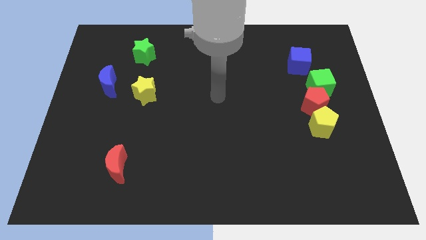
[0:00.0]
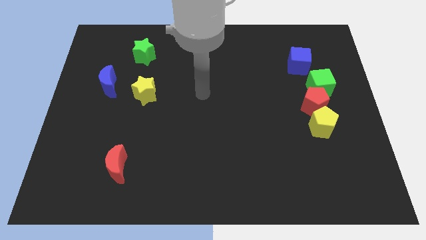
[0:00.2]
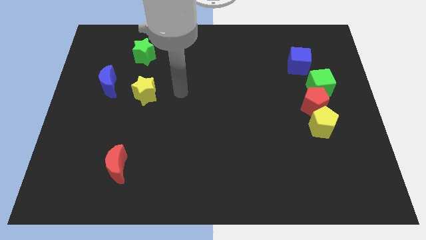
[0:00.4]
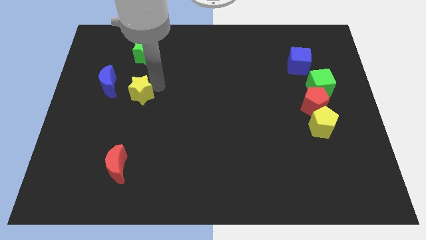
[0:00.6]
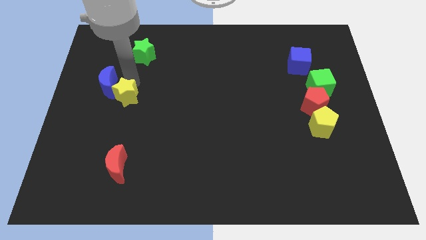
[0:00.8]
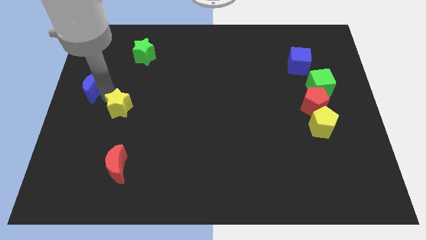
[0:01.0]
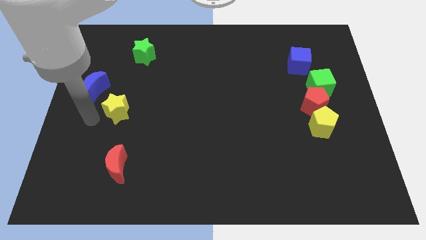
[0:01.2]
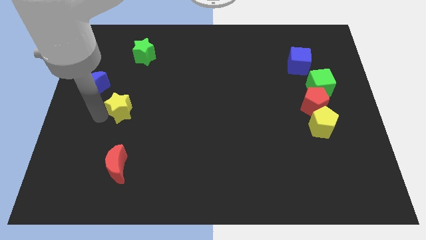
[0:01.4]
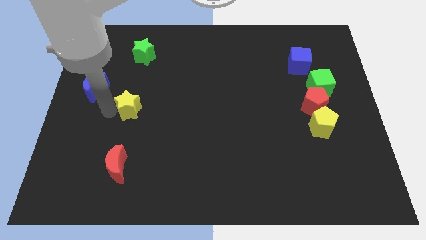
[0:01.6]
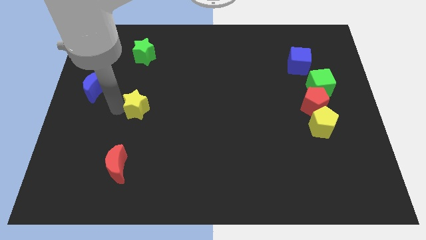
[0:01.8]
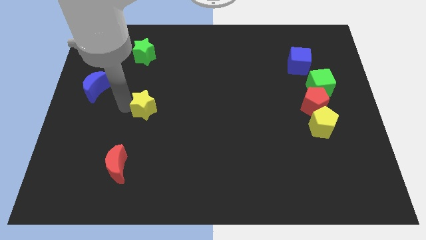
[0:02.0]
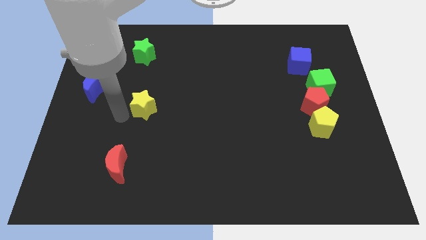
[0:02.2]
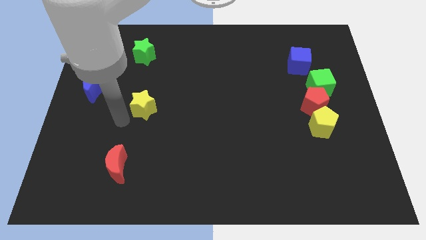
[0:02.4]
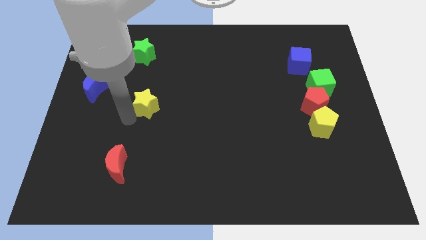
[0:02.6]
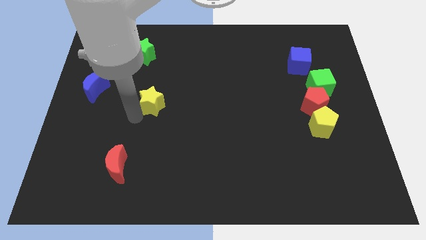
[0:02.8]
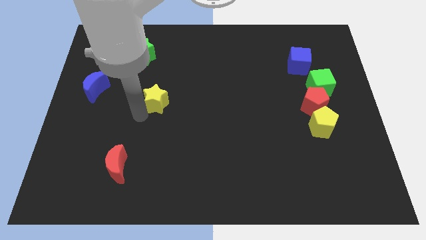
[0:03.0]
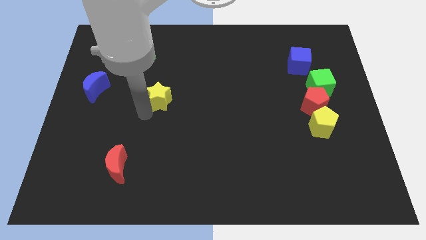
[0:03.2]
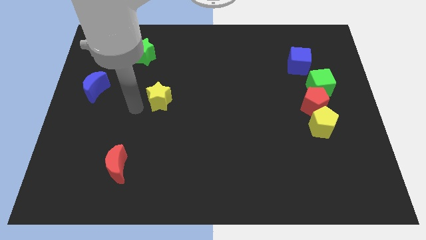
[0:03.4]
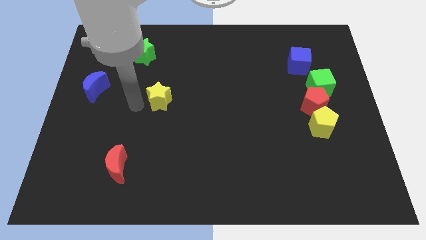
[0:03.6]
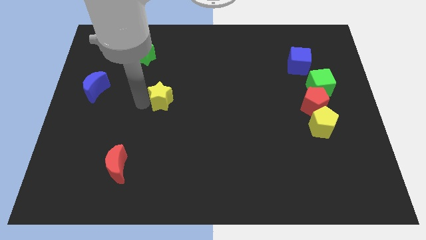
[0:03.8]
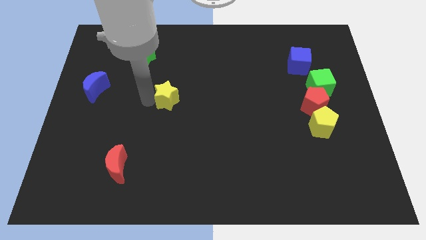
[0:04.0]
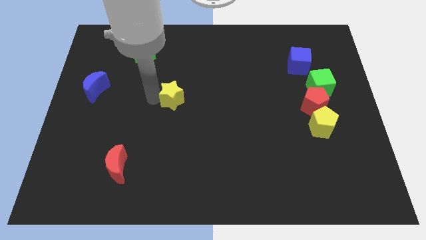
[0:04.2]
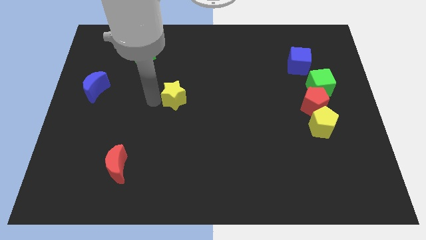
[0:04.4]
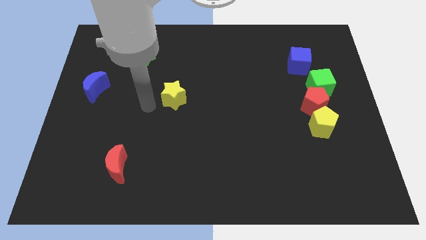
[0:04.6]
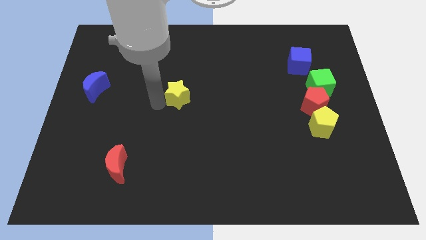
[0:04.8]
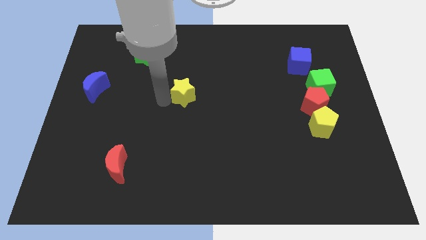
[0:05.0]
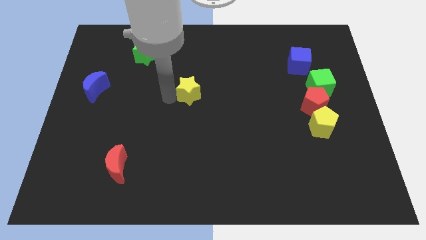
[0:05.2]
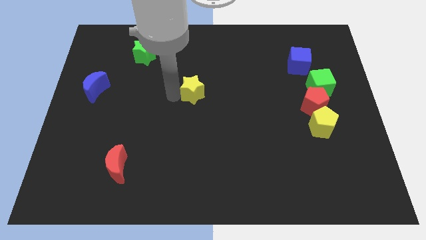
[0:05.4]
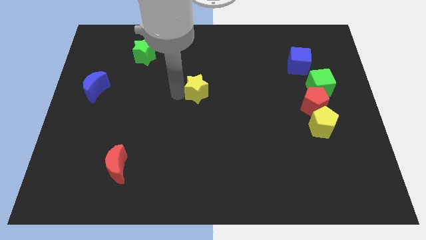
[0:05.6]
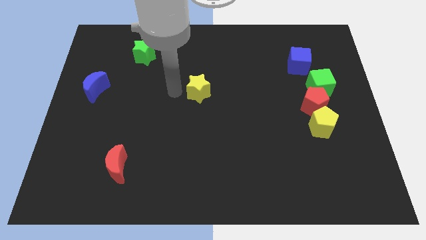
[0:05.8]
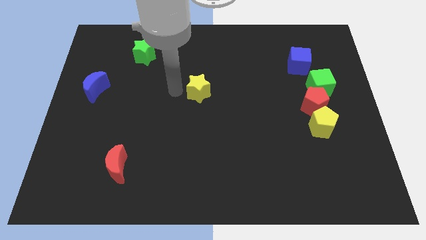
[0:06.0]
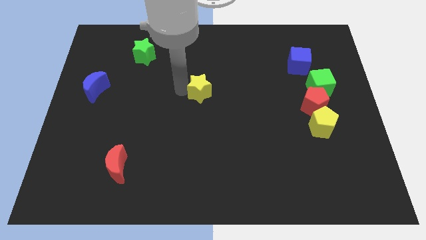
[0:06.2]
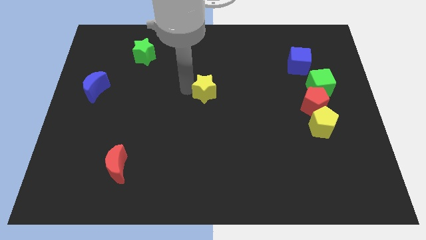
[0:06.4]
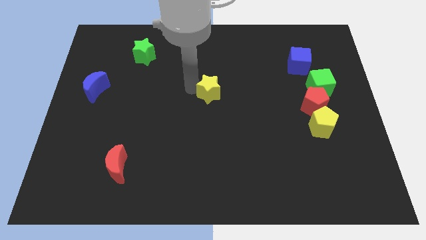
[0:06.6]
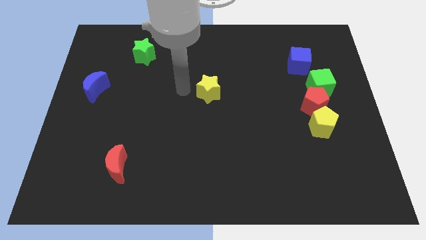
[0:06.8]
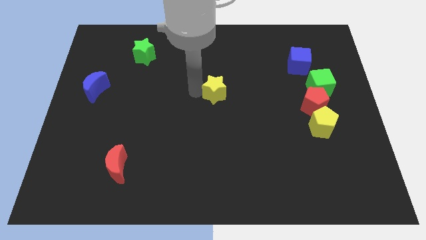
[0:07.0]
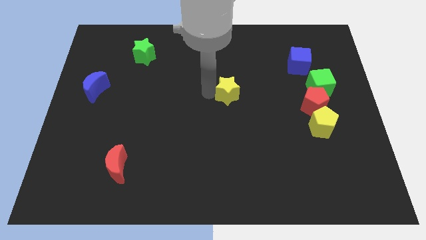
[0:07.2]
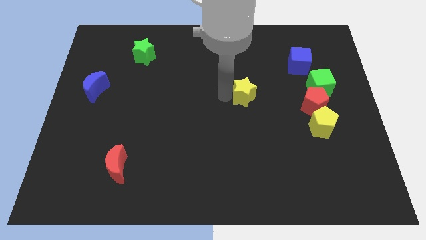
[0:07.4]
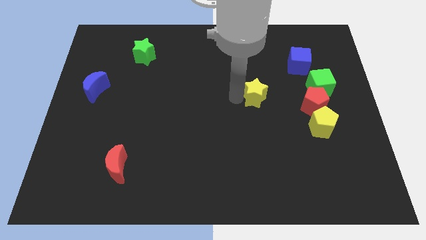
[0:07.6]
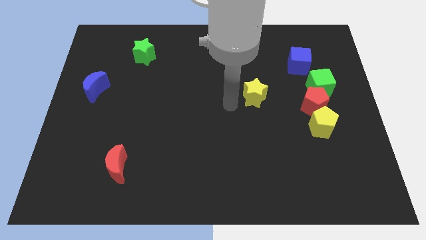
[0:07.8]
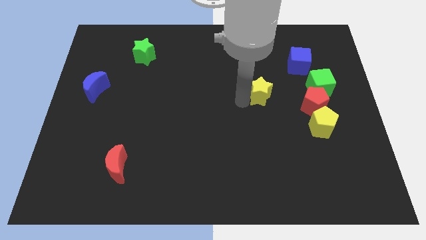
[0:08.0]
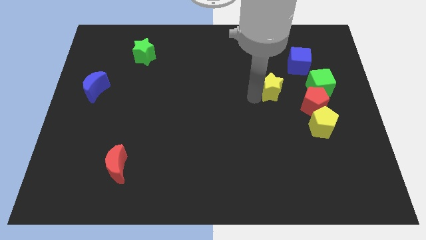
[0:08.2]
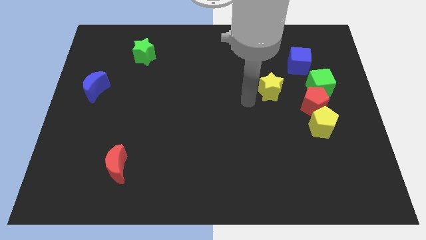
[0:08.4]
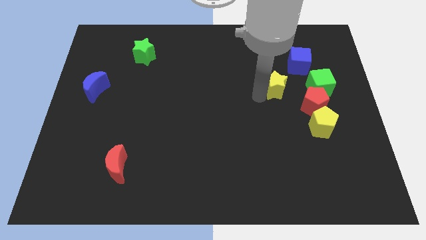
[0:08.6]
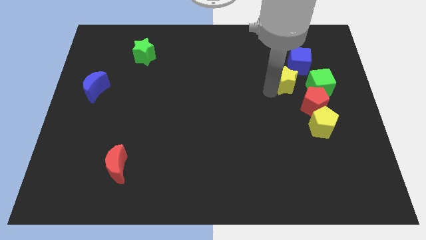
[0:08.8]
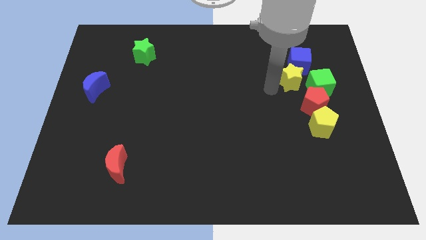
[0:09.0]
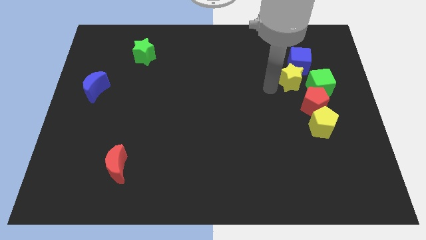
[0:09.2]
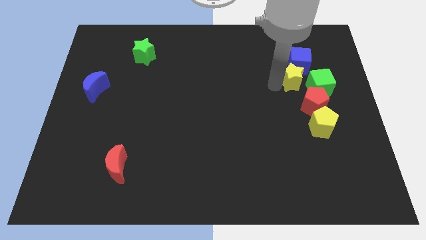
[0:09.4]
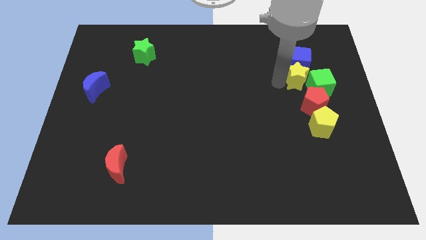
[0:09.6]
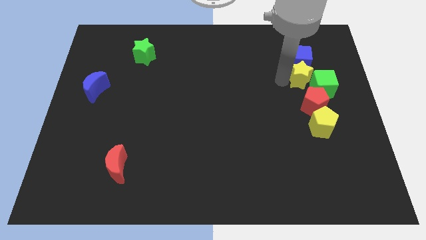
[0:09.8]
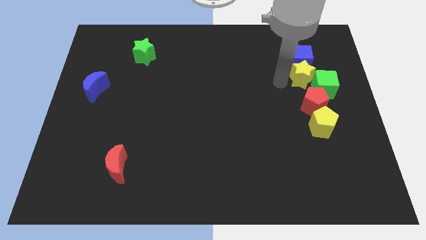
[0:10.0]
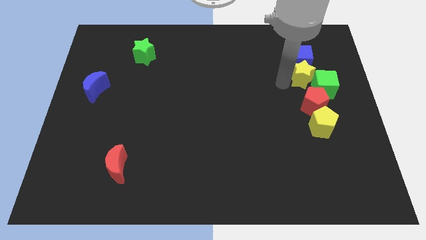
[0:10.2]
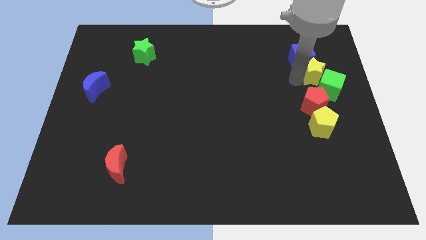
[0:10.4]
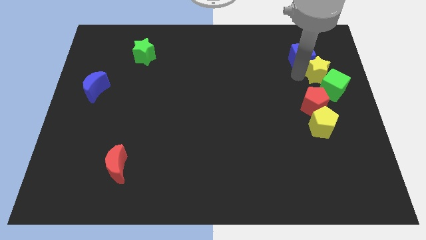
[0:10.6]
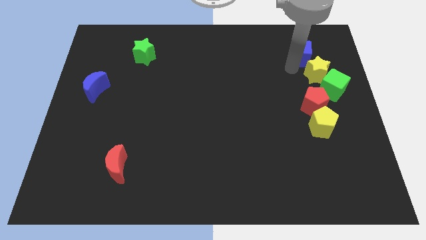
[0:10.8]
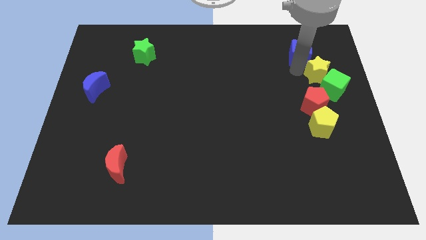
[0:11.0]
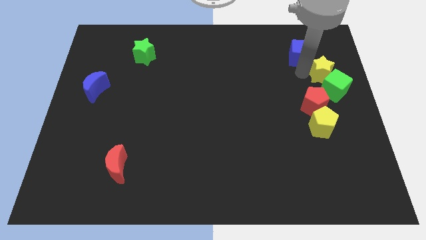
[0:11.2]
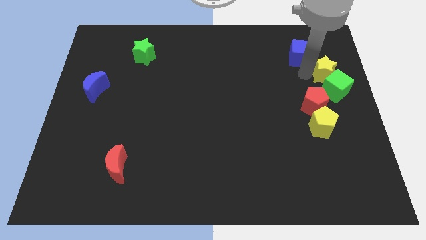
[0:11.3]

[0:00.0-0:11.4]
push the yellow star to the right side

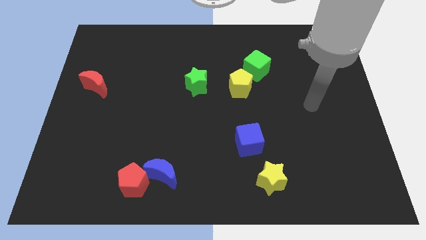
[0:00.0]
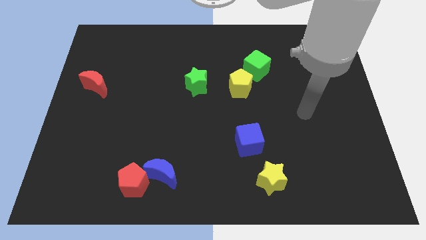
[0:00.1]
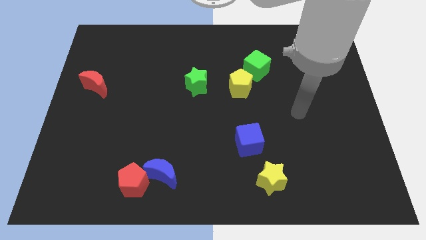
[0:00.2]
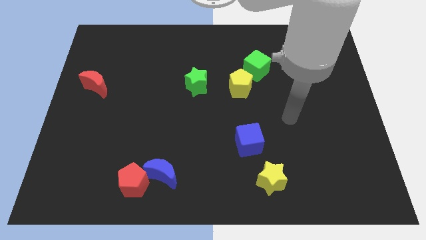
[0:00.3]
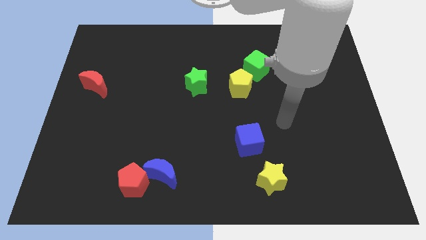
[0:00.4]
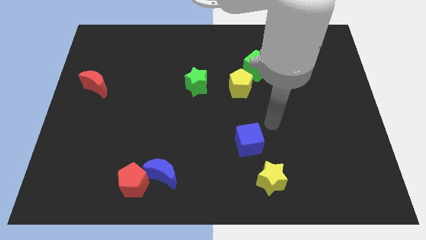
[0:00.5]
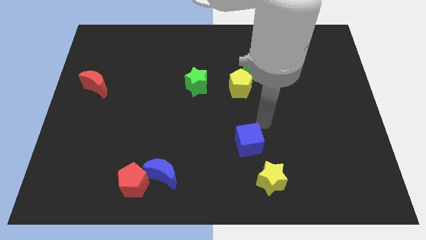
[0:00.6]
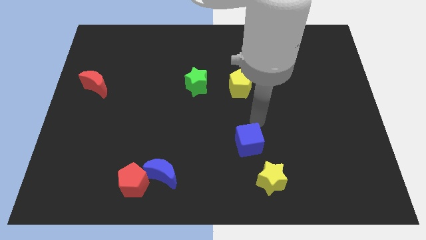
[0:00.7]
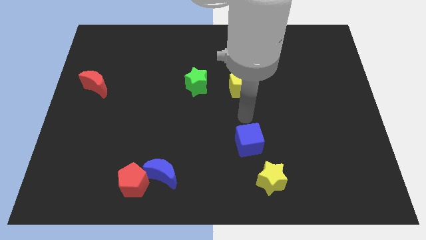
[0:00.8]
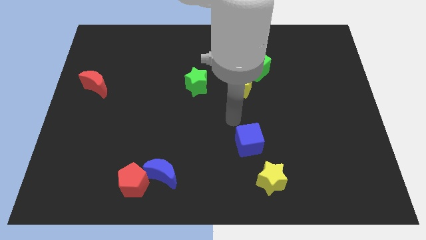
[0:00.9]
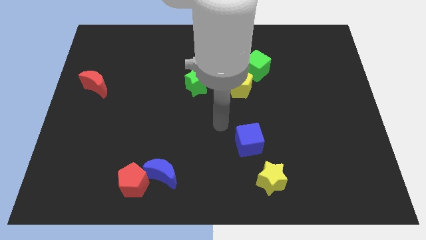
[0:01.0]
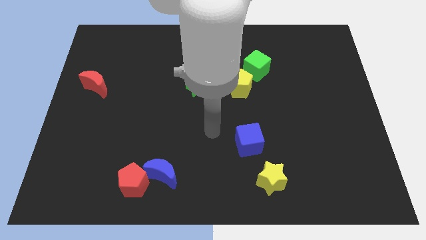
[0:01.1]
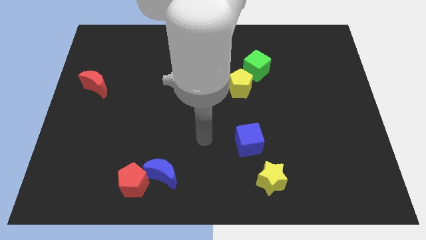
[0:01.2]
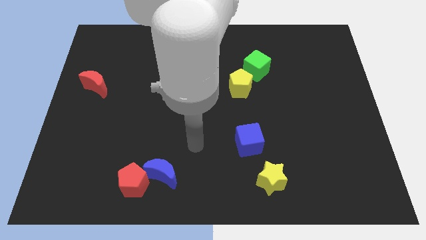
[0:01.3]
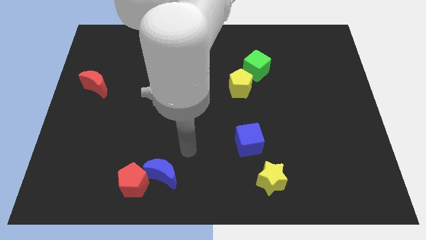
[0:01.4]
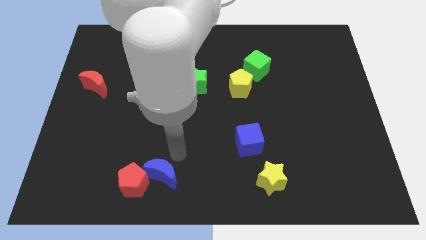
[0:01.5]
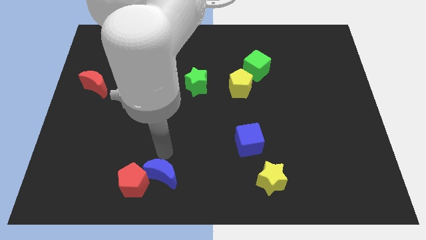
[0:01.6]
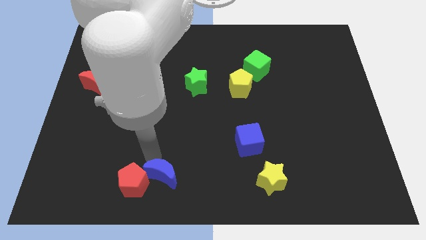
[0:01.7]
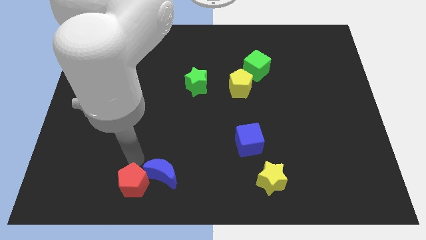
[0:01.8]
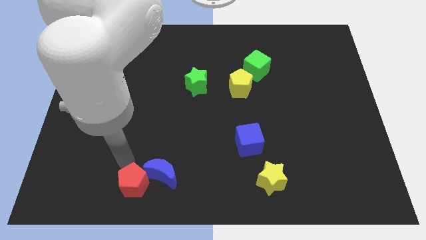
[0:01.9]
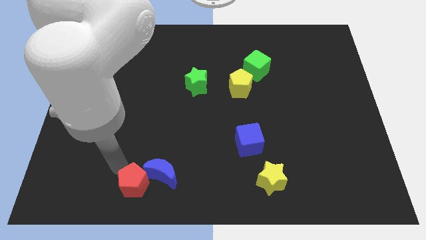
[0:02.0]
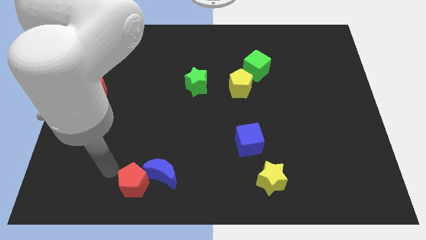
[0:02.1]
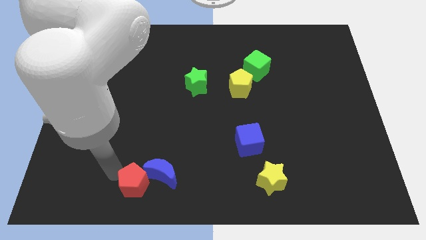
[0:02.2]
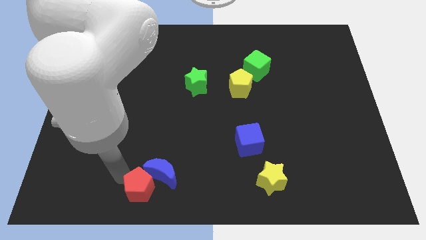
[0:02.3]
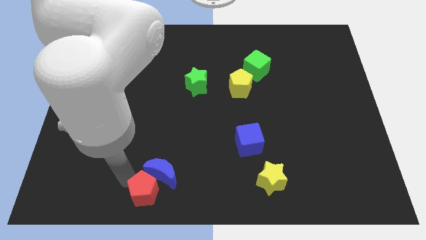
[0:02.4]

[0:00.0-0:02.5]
move the red pentagon to the bottom
